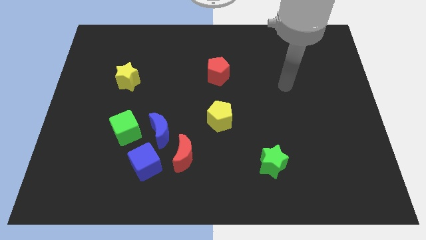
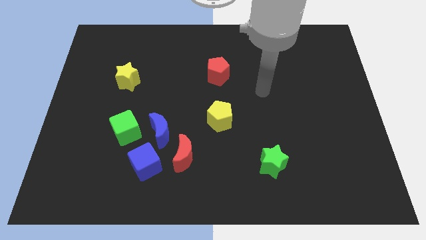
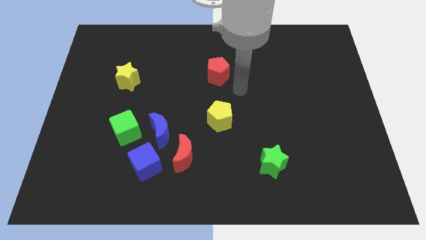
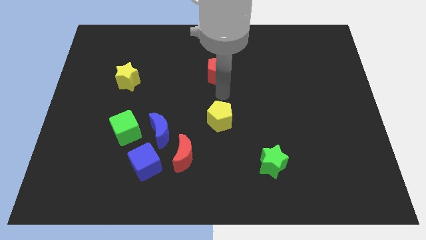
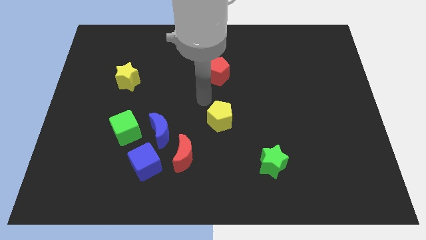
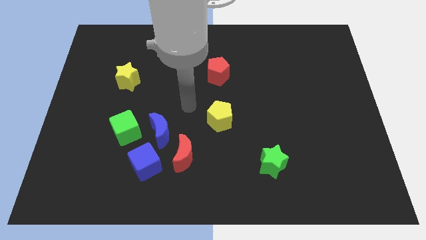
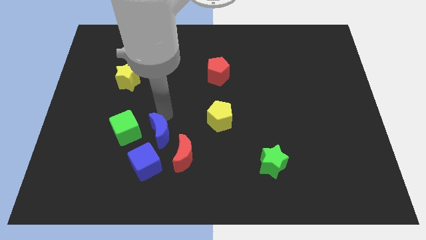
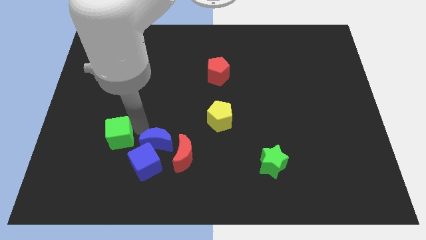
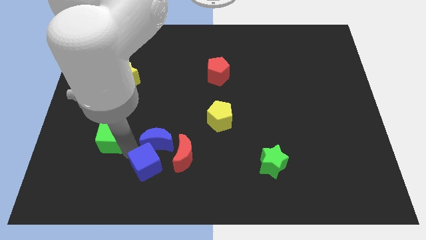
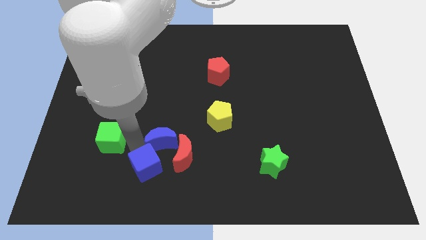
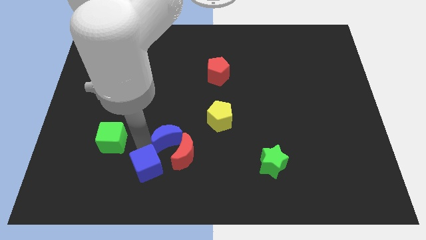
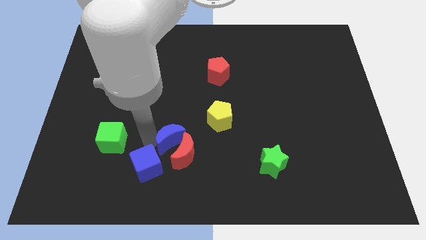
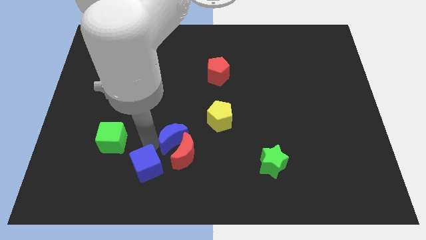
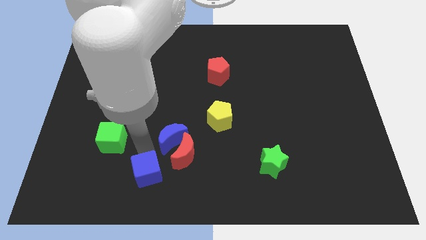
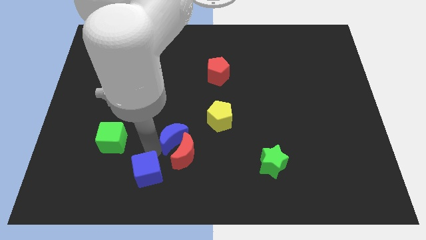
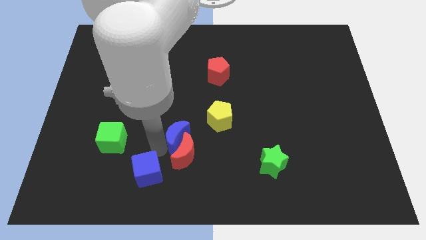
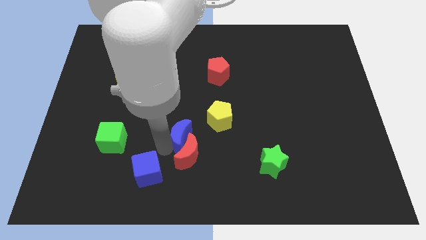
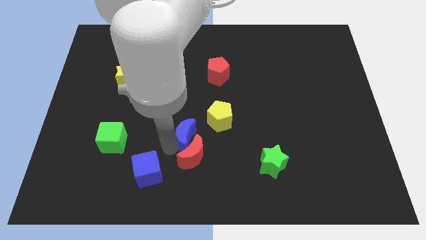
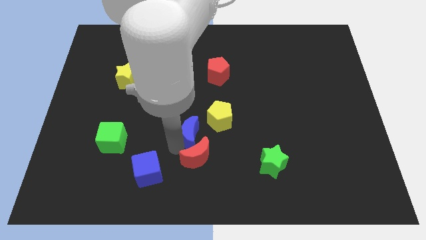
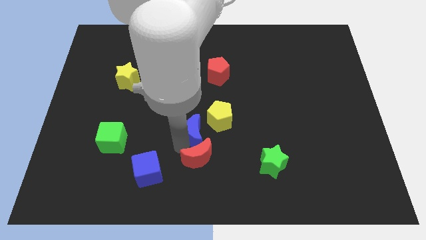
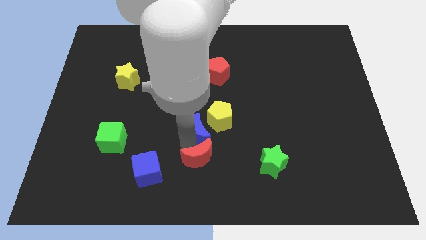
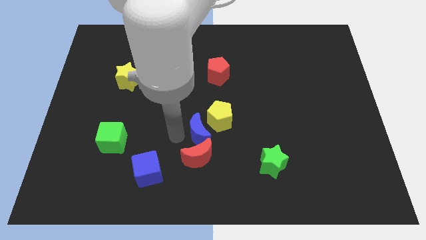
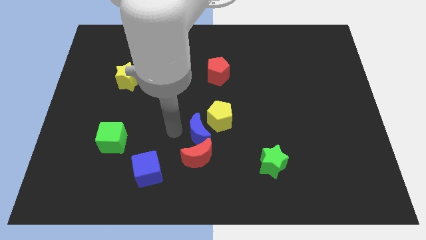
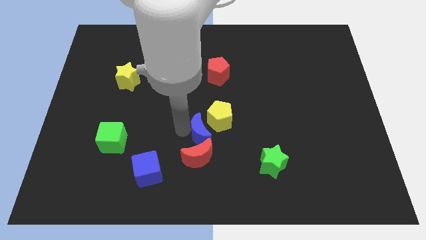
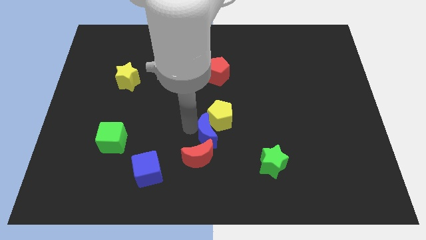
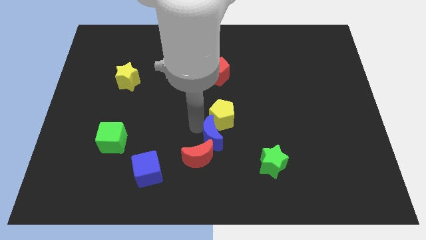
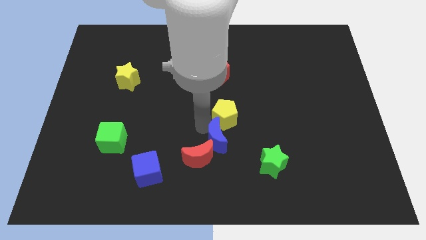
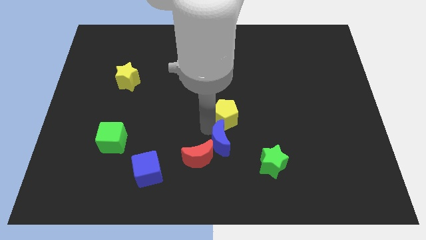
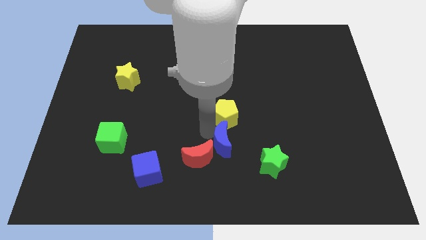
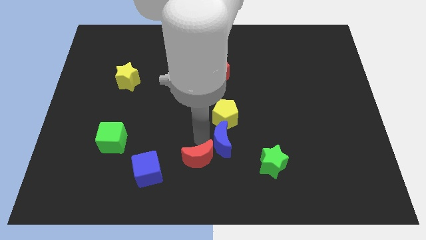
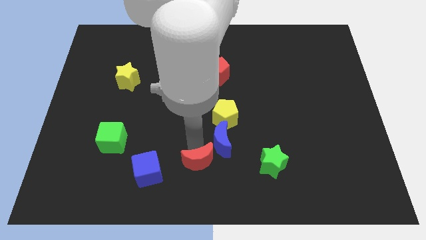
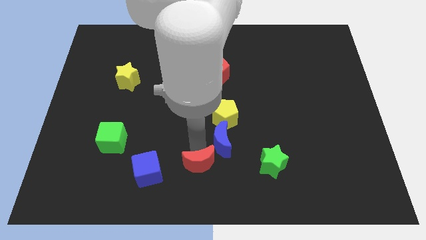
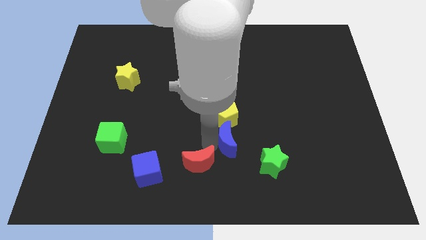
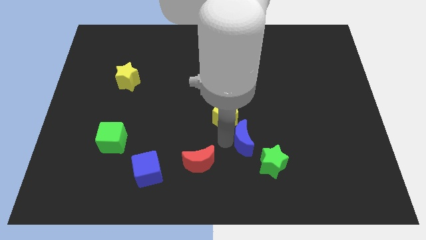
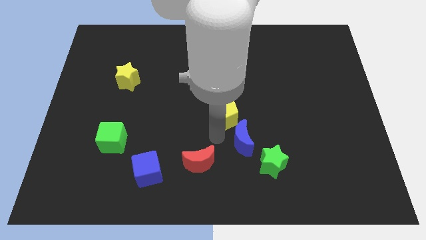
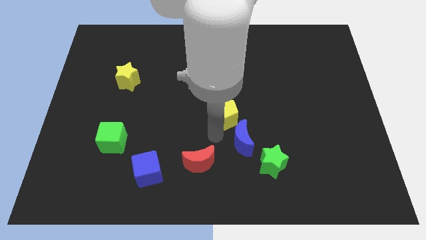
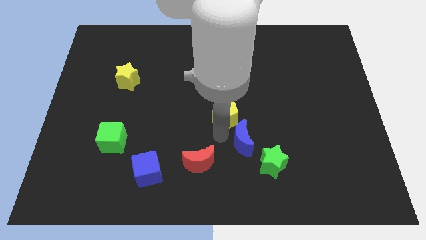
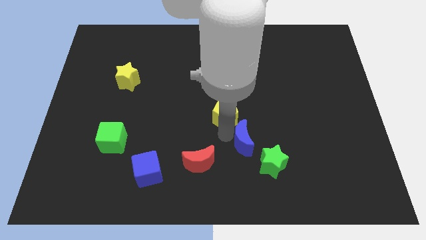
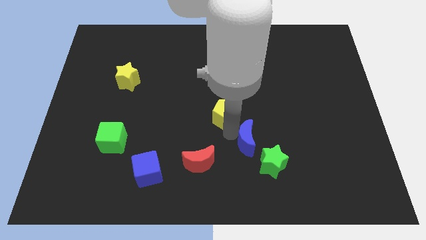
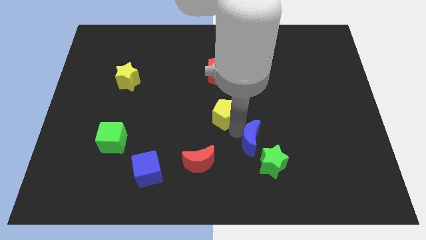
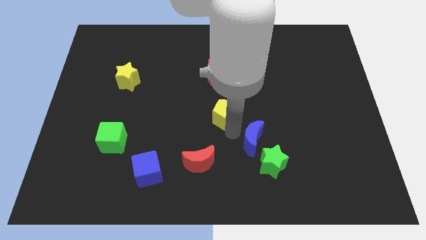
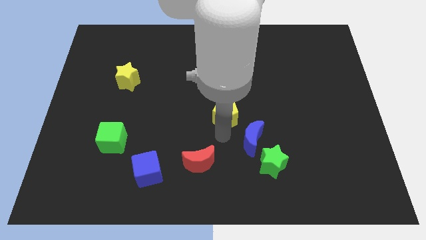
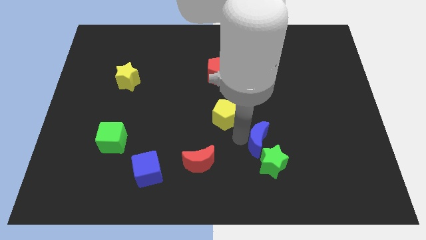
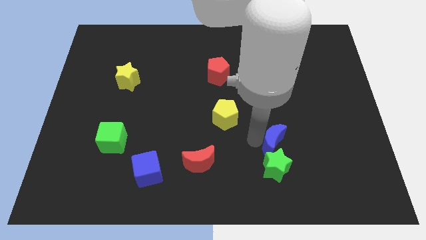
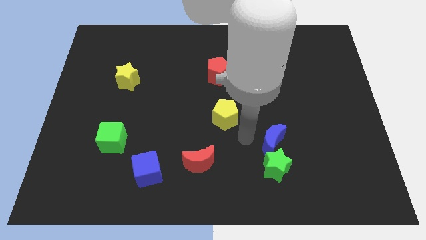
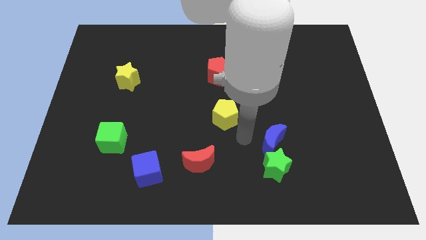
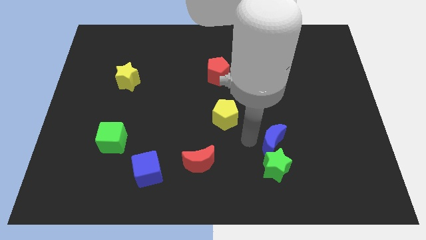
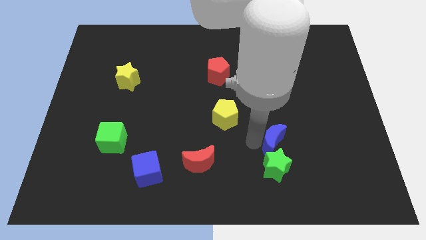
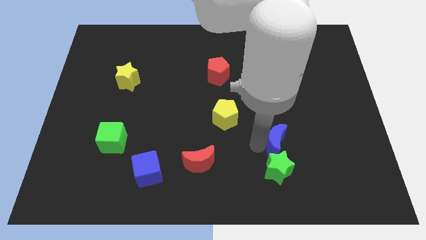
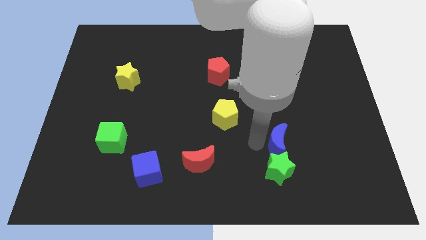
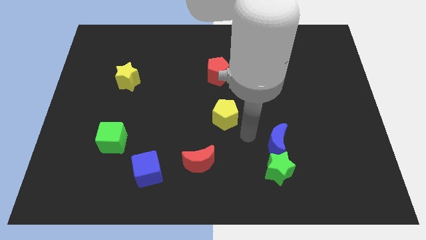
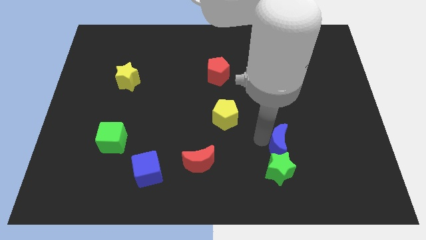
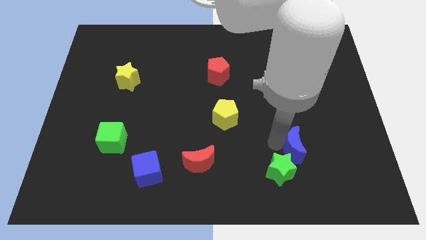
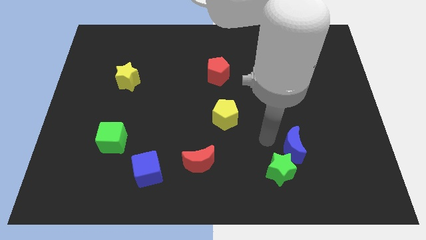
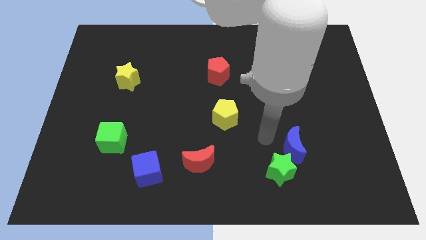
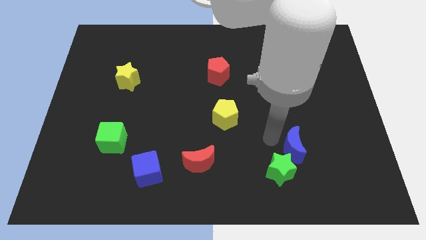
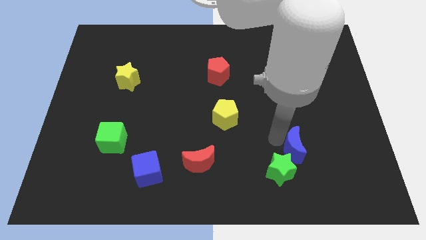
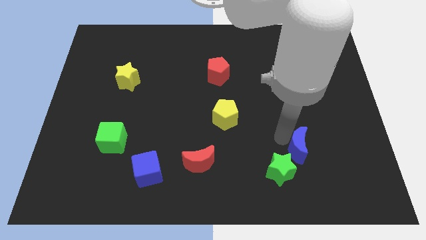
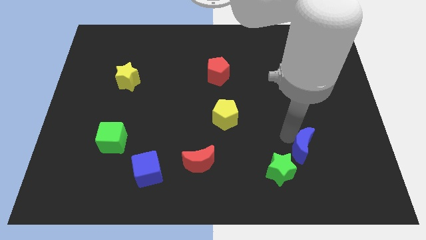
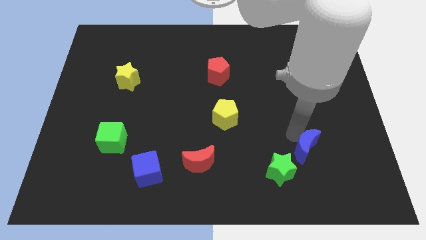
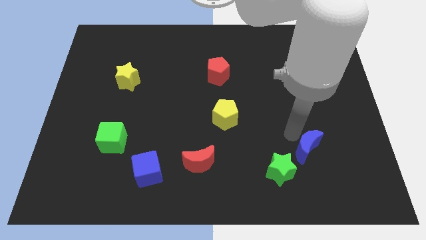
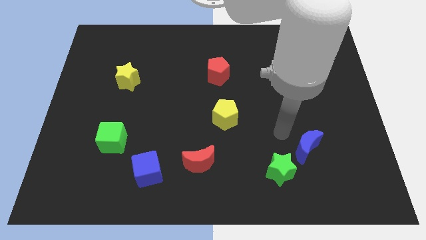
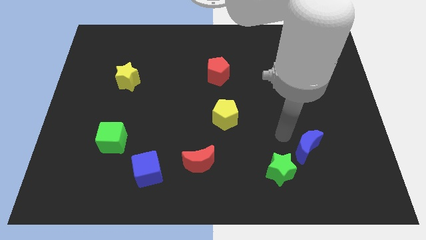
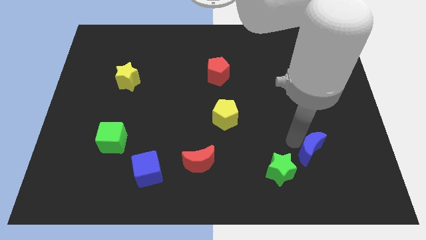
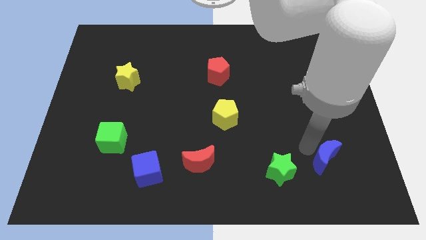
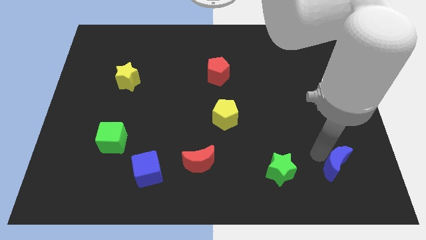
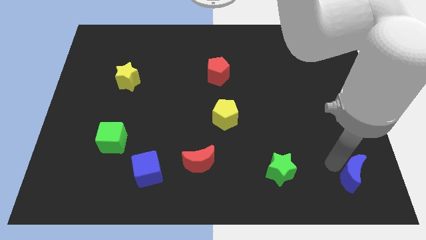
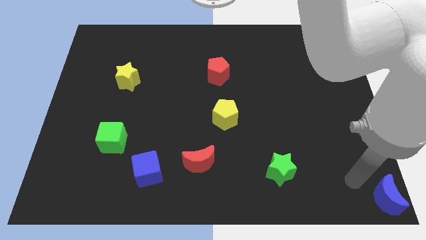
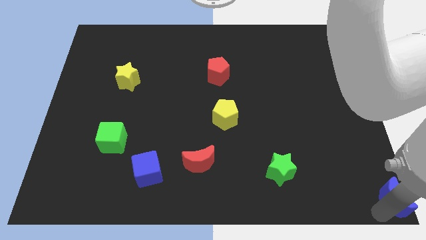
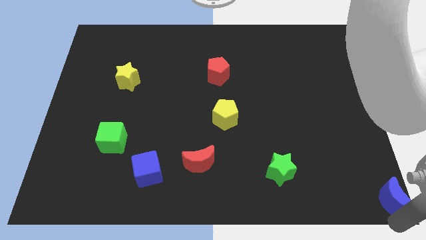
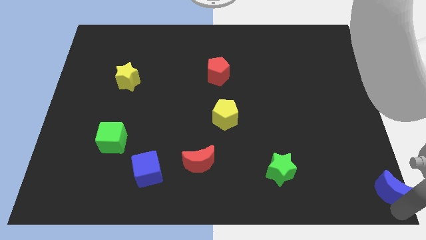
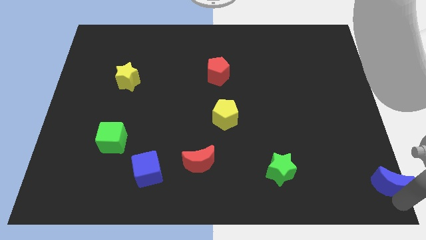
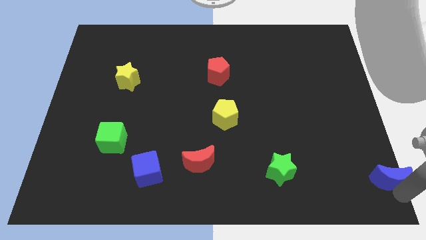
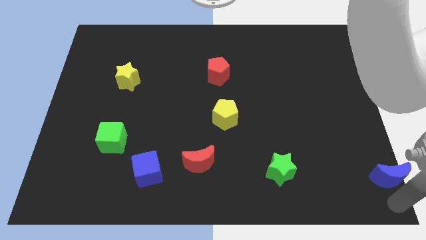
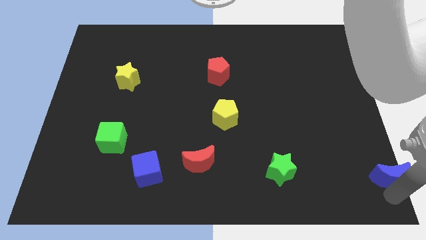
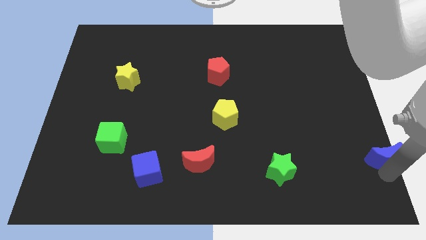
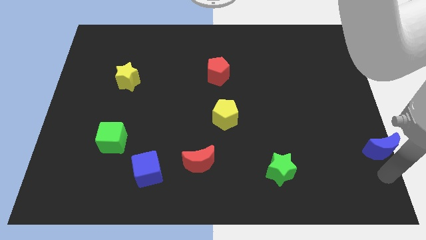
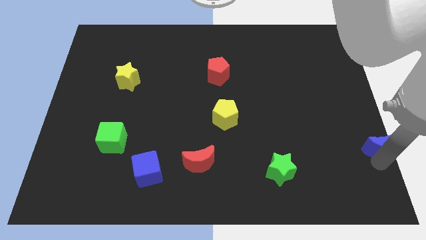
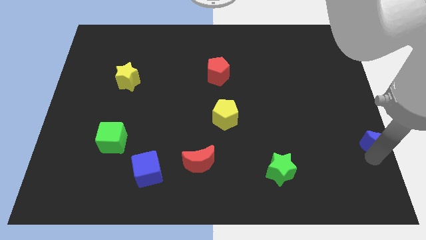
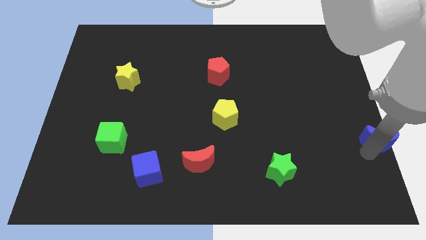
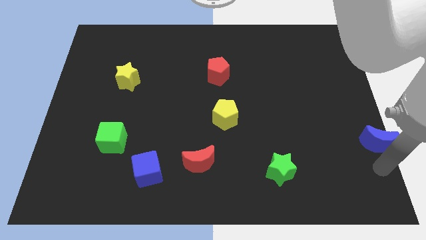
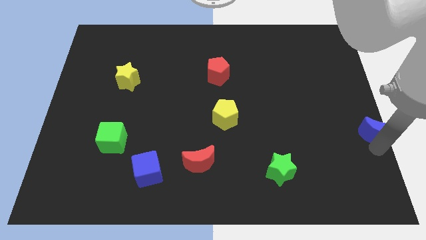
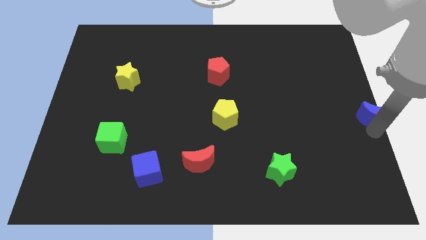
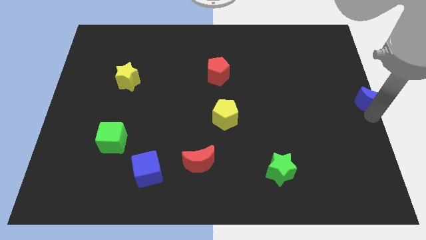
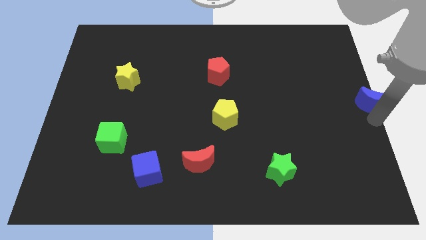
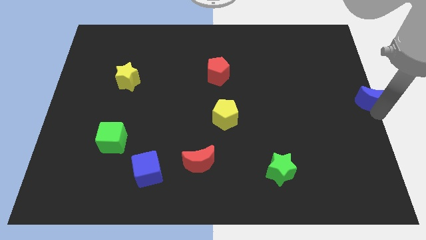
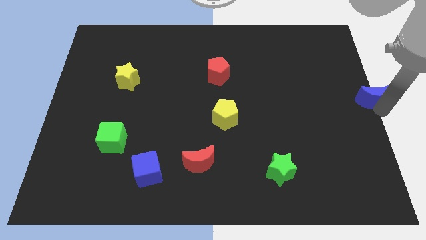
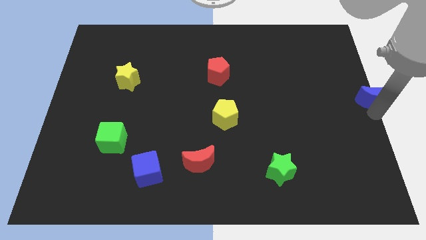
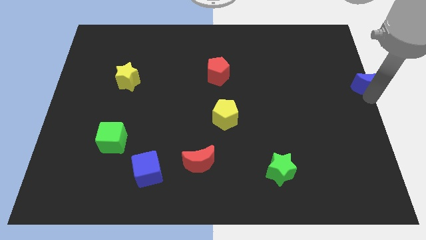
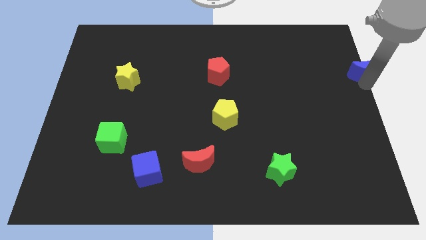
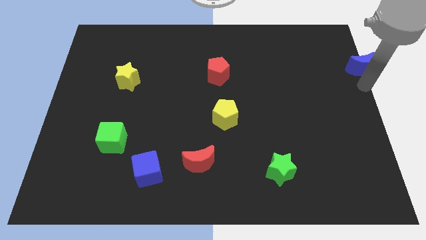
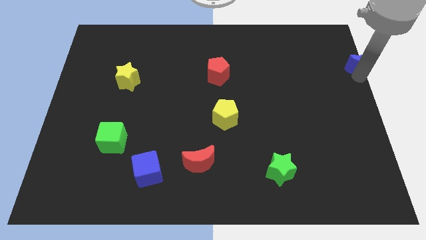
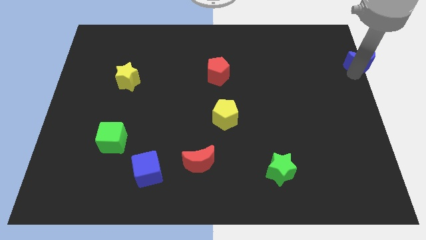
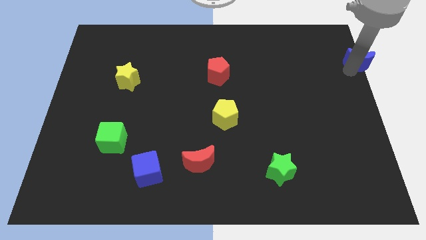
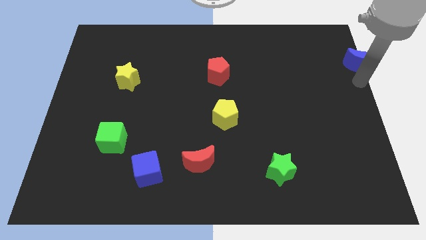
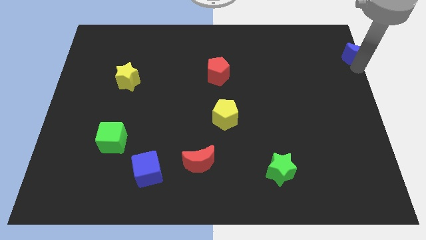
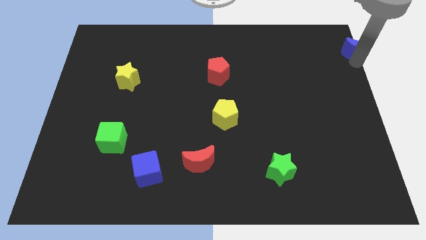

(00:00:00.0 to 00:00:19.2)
move the blue moon to the top right
